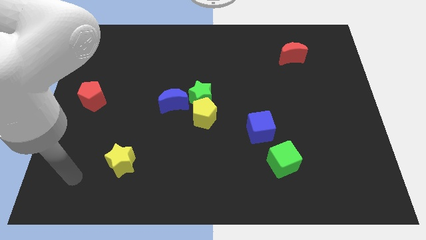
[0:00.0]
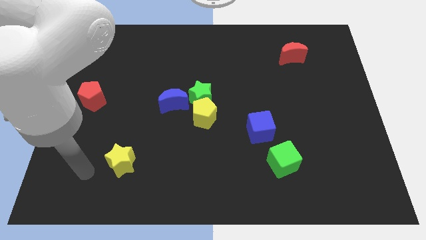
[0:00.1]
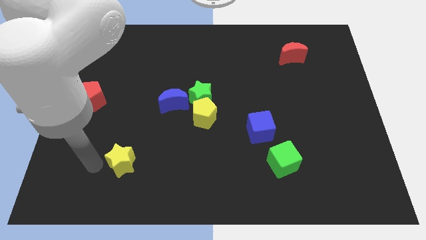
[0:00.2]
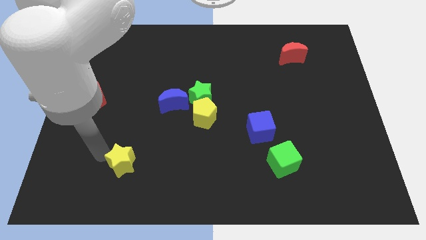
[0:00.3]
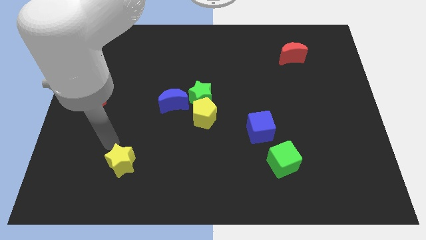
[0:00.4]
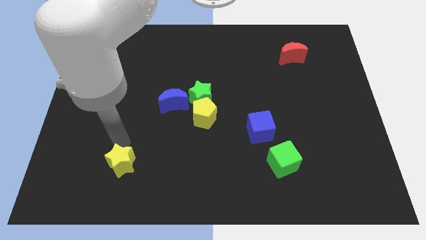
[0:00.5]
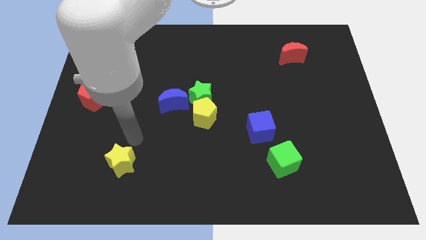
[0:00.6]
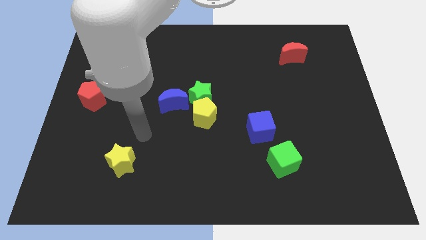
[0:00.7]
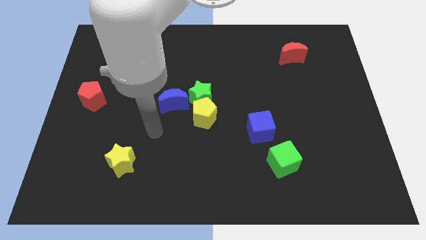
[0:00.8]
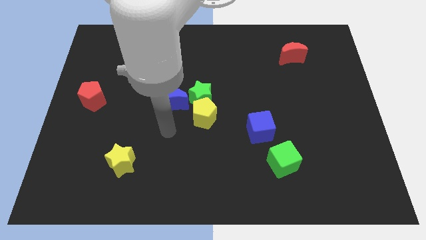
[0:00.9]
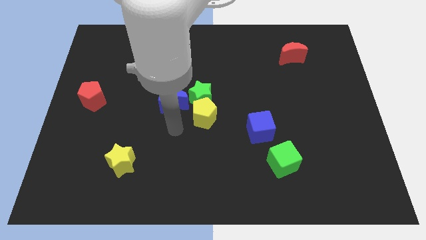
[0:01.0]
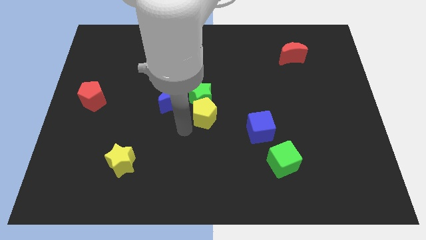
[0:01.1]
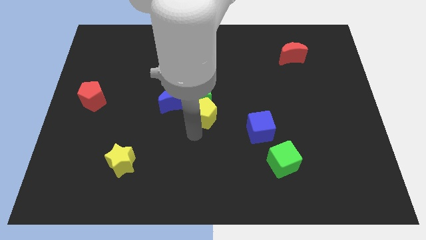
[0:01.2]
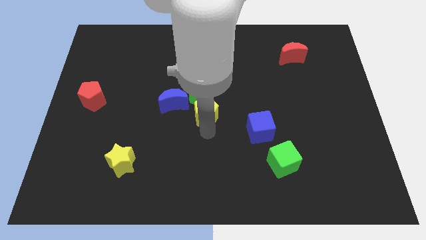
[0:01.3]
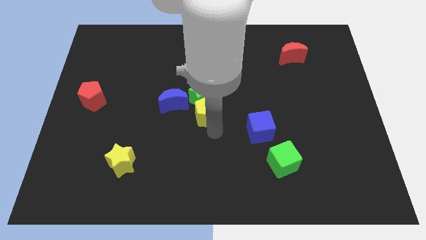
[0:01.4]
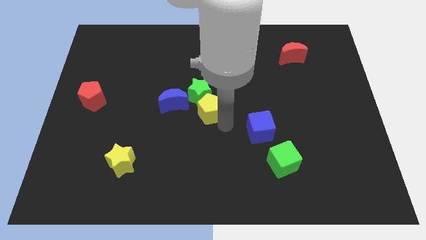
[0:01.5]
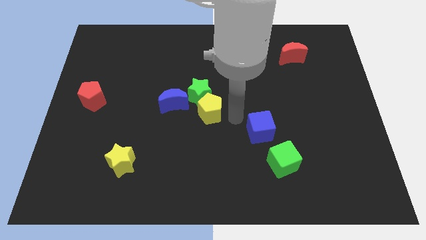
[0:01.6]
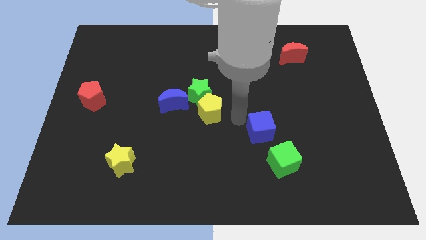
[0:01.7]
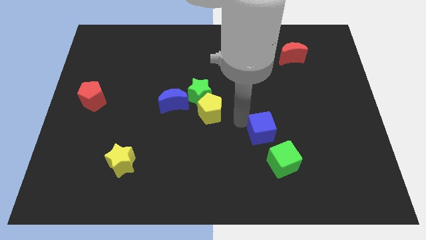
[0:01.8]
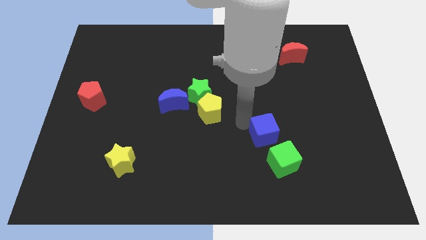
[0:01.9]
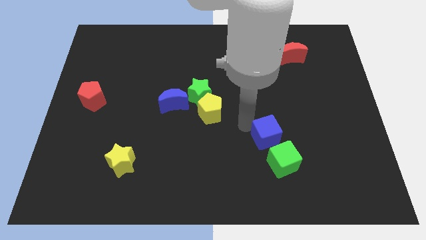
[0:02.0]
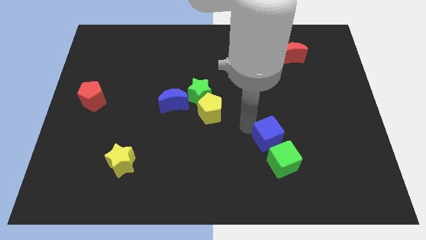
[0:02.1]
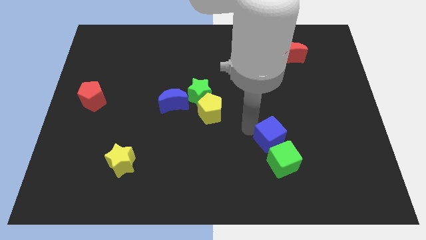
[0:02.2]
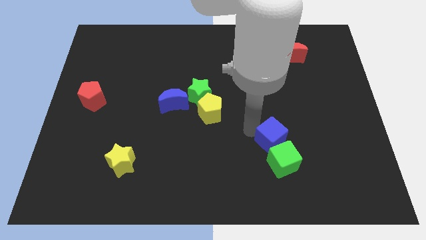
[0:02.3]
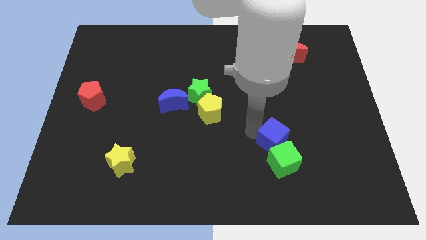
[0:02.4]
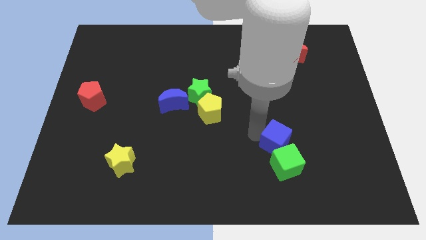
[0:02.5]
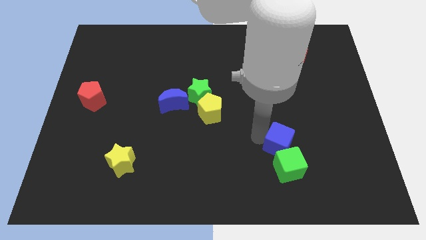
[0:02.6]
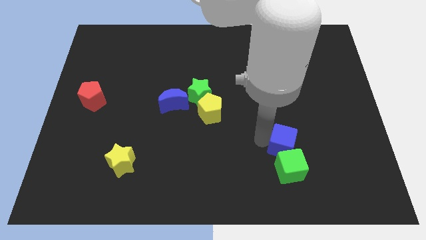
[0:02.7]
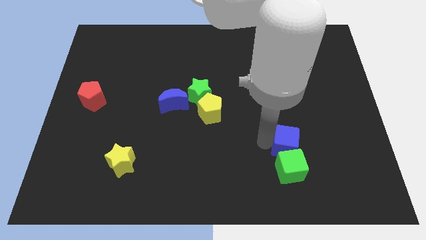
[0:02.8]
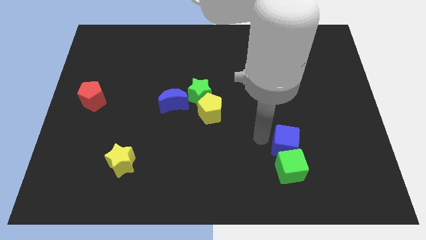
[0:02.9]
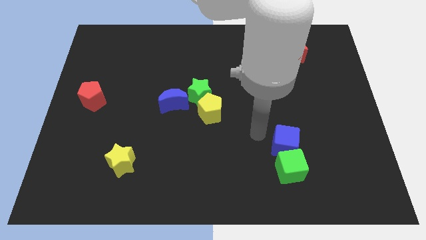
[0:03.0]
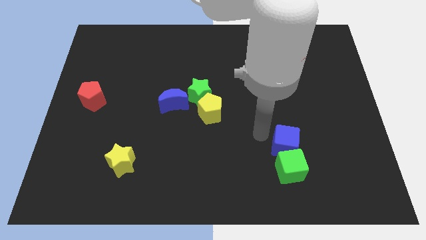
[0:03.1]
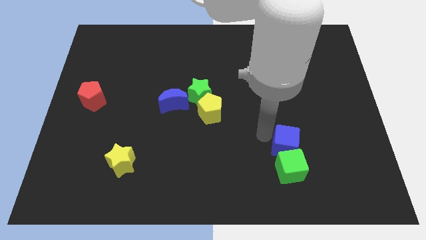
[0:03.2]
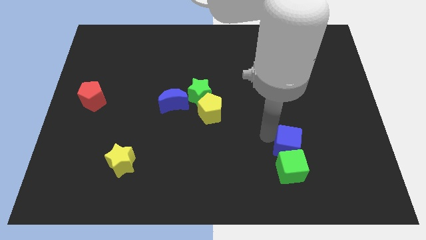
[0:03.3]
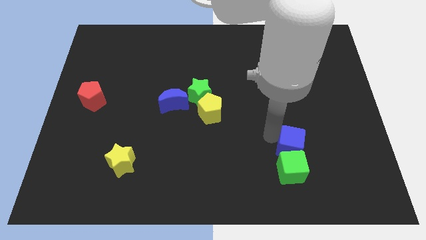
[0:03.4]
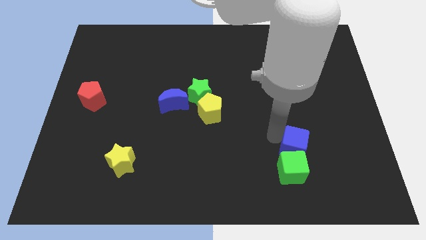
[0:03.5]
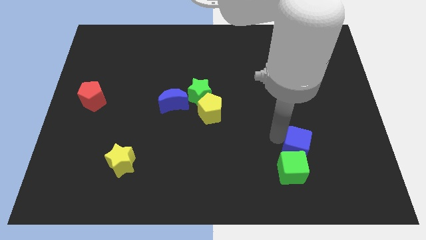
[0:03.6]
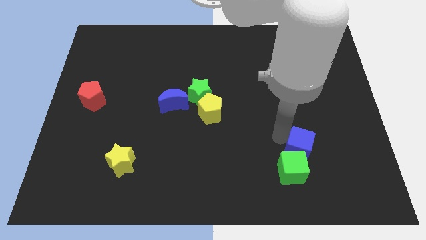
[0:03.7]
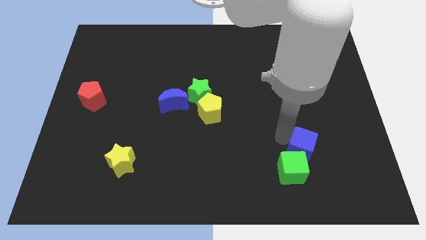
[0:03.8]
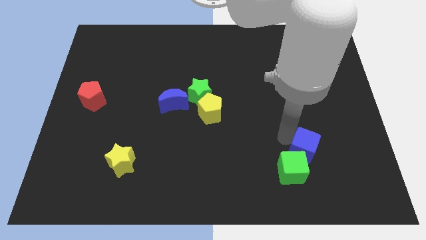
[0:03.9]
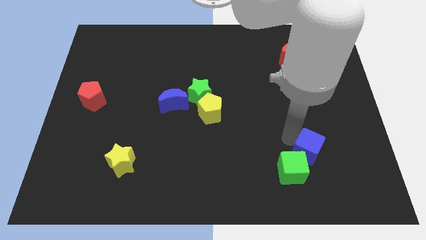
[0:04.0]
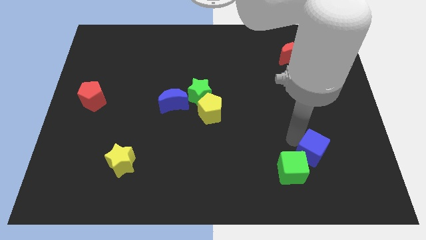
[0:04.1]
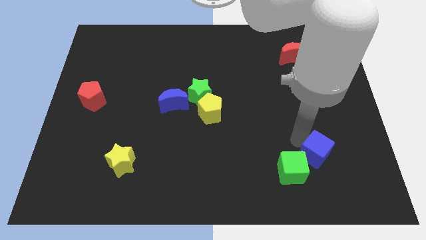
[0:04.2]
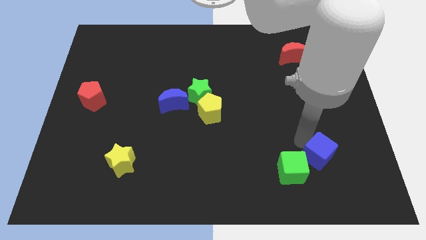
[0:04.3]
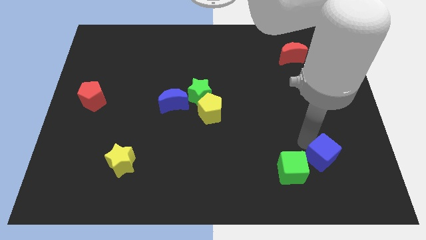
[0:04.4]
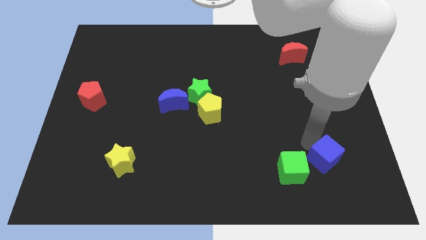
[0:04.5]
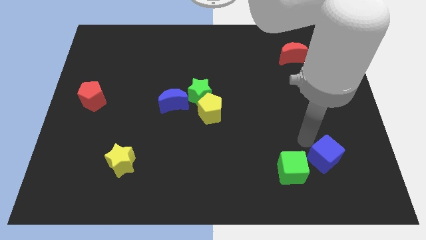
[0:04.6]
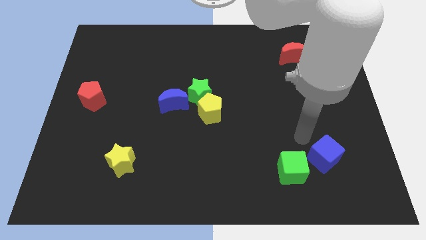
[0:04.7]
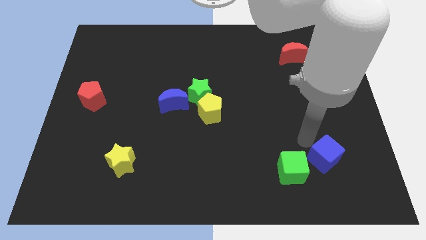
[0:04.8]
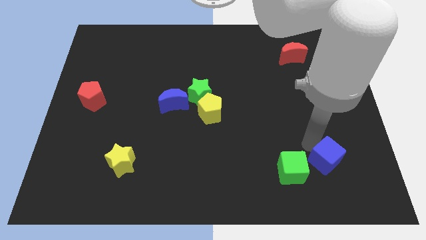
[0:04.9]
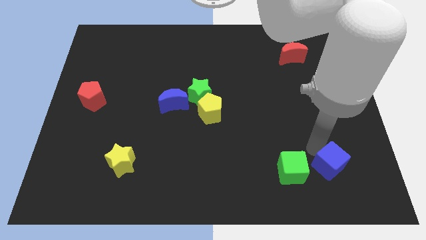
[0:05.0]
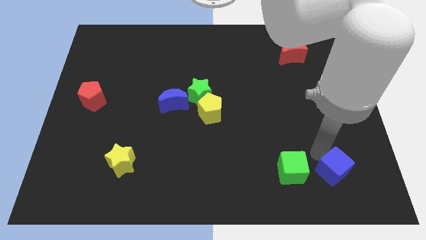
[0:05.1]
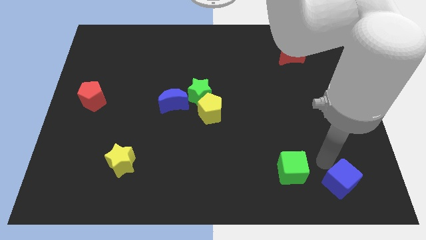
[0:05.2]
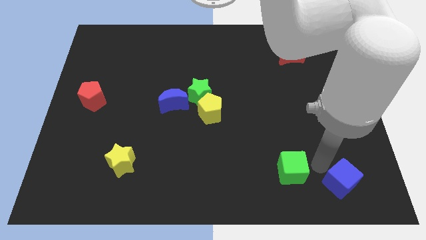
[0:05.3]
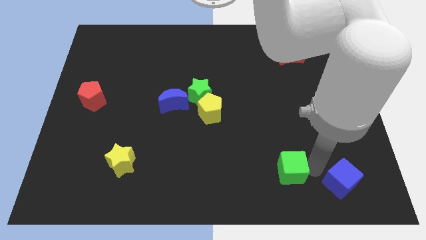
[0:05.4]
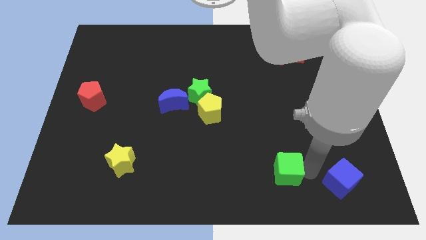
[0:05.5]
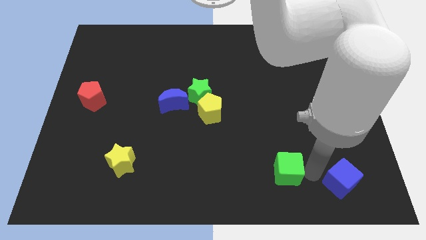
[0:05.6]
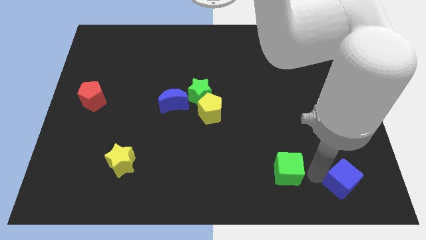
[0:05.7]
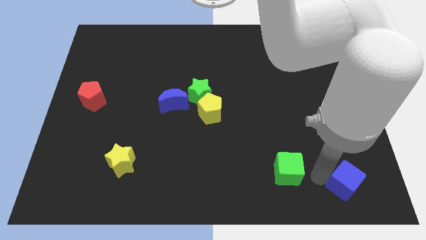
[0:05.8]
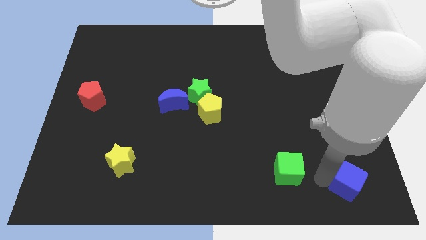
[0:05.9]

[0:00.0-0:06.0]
push the blue cube to the bottom right
